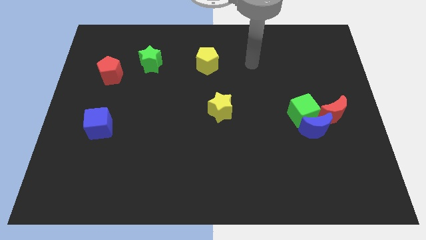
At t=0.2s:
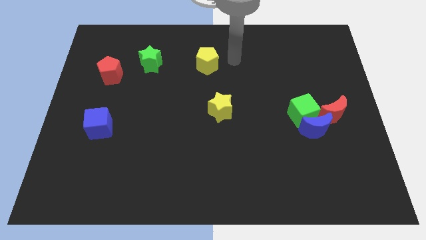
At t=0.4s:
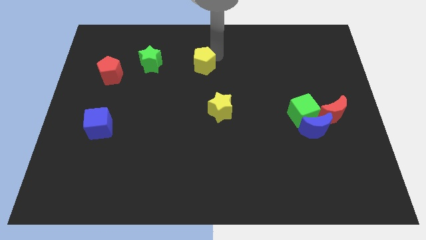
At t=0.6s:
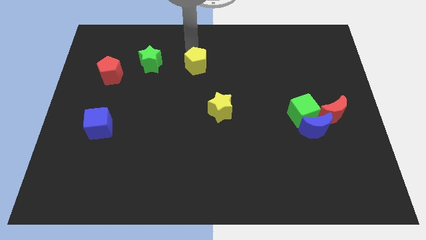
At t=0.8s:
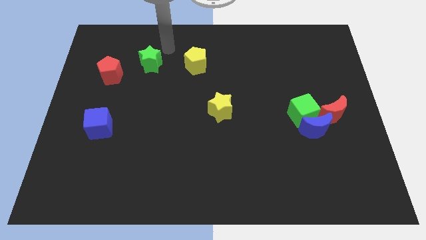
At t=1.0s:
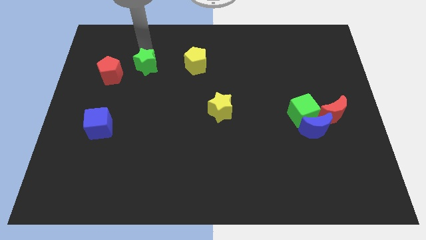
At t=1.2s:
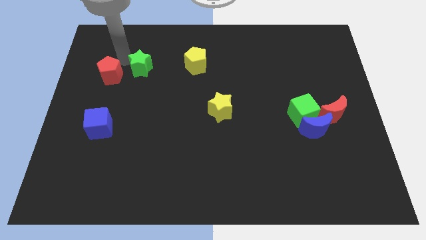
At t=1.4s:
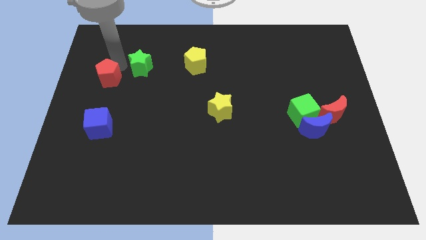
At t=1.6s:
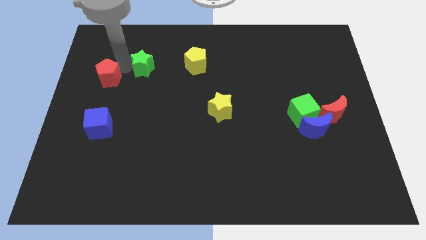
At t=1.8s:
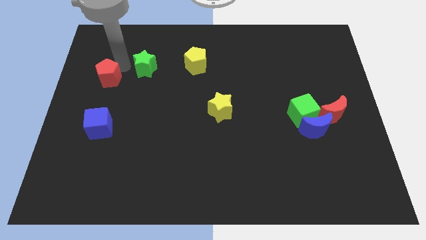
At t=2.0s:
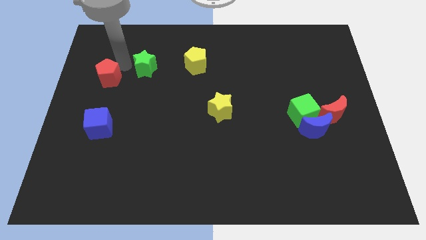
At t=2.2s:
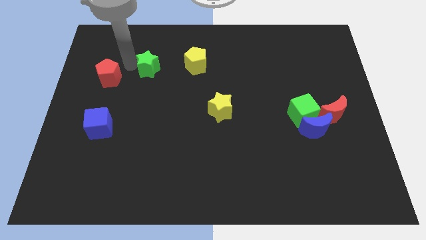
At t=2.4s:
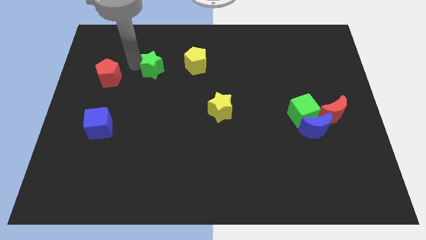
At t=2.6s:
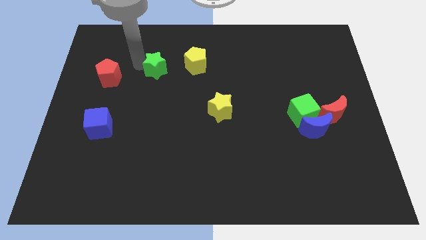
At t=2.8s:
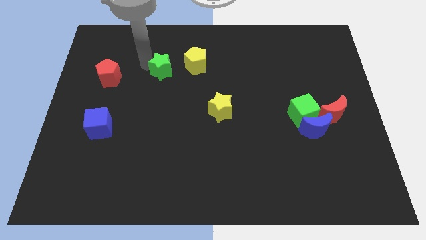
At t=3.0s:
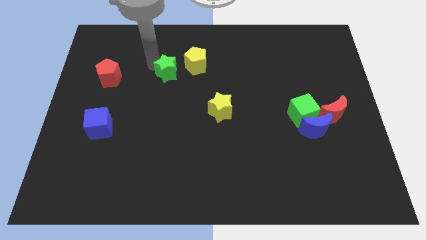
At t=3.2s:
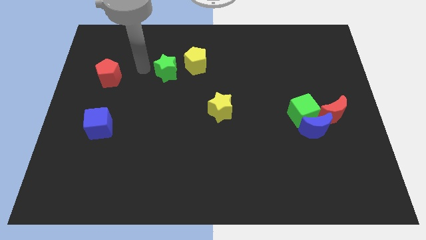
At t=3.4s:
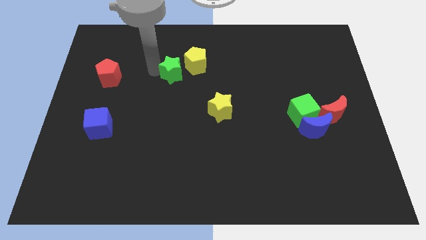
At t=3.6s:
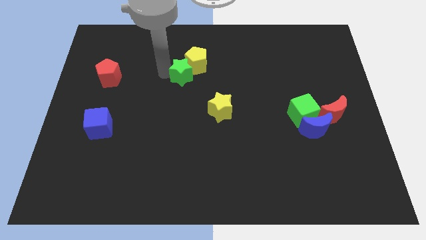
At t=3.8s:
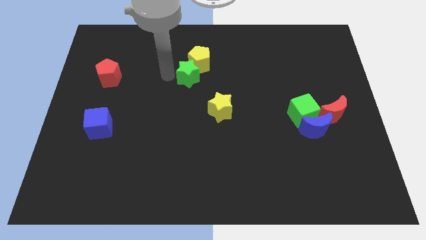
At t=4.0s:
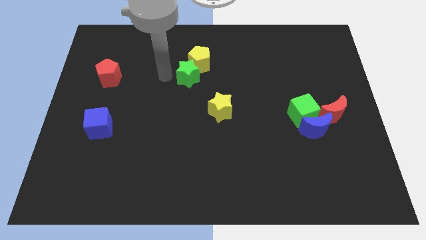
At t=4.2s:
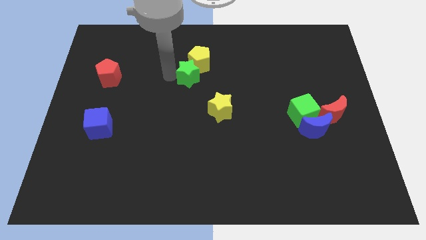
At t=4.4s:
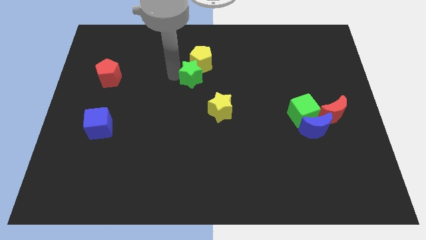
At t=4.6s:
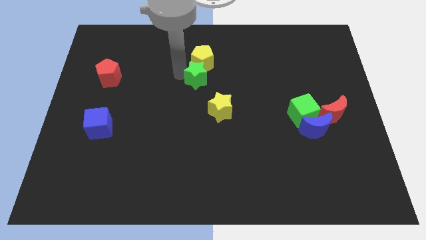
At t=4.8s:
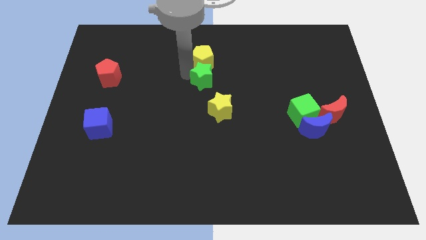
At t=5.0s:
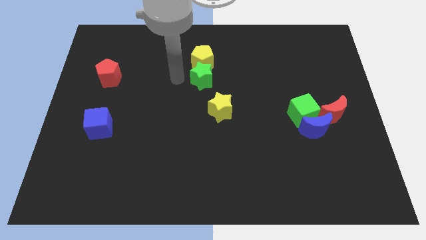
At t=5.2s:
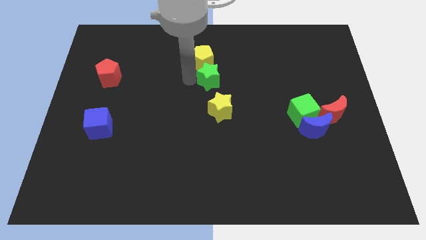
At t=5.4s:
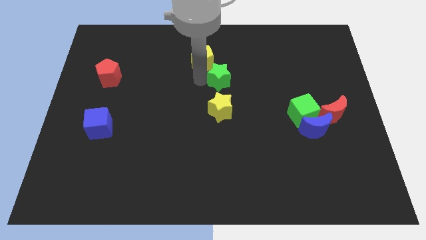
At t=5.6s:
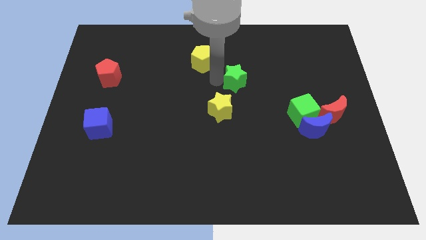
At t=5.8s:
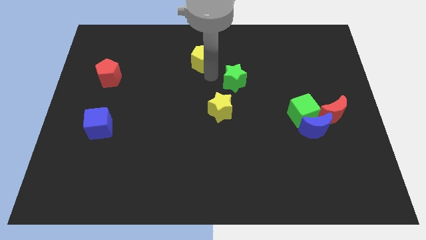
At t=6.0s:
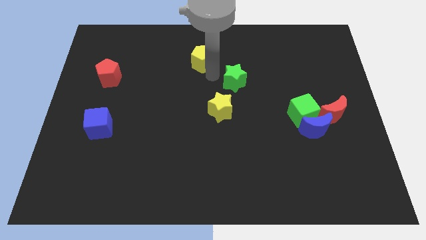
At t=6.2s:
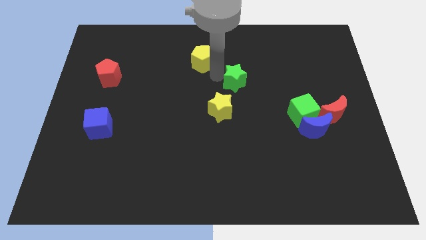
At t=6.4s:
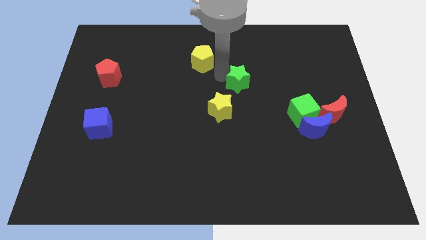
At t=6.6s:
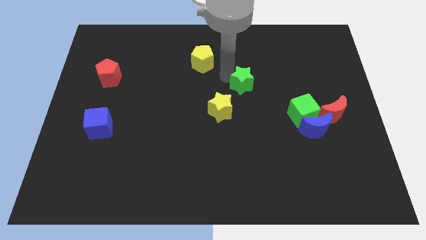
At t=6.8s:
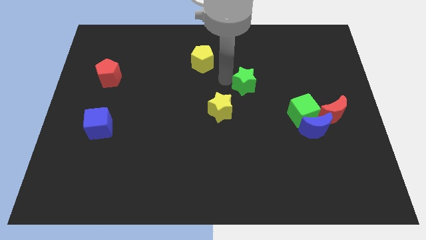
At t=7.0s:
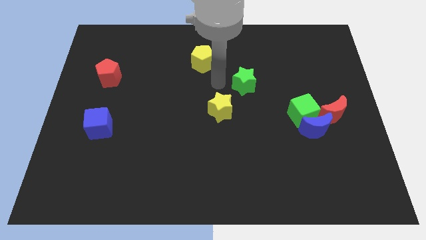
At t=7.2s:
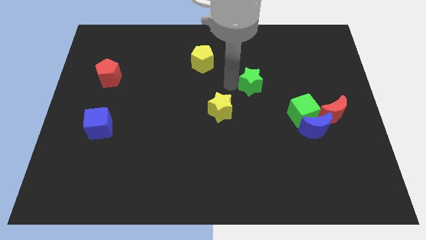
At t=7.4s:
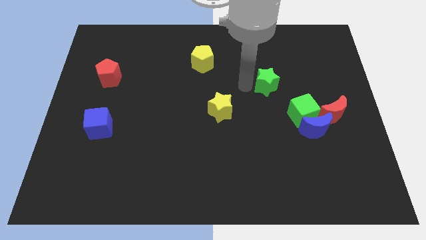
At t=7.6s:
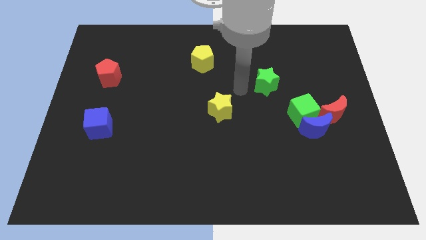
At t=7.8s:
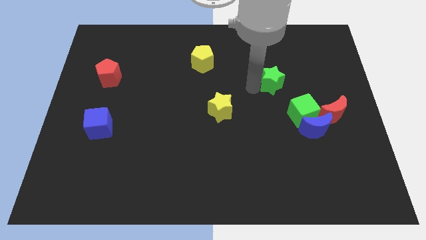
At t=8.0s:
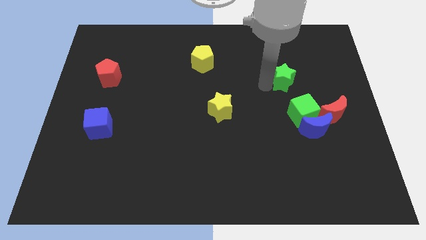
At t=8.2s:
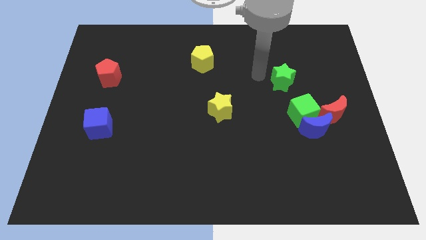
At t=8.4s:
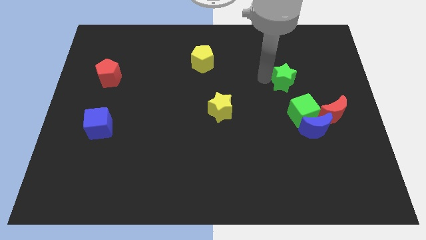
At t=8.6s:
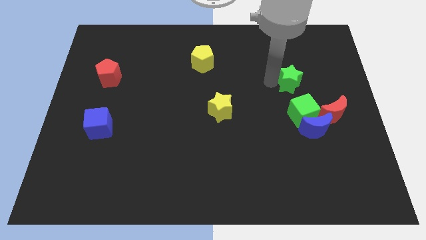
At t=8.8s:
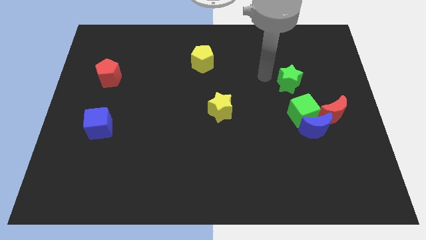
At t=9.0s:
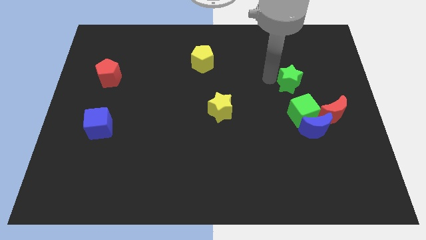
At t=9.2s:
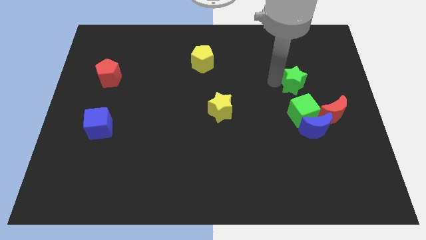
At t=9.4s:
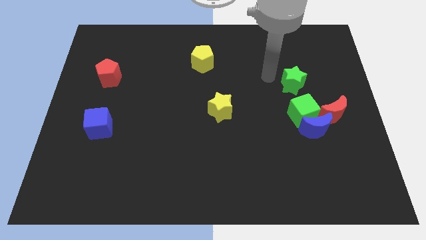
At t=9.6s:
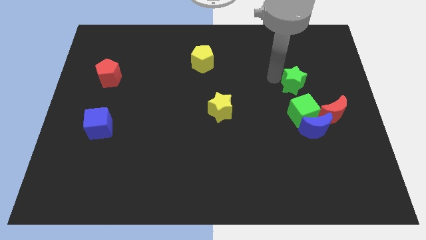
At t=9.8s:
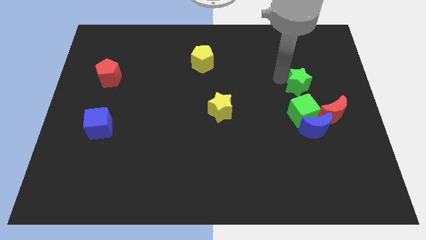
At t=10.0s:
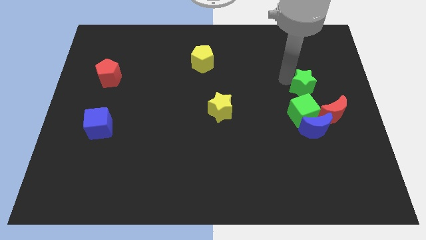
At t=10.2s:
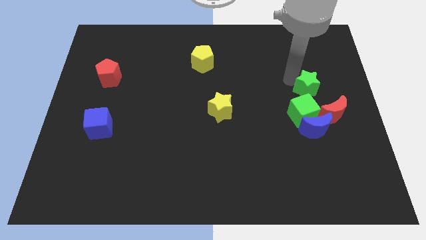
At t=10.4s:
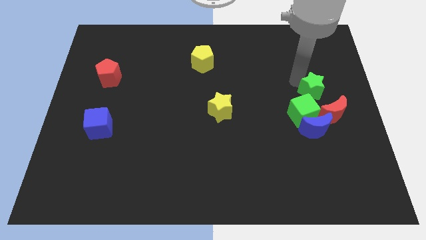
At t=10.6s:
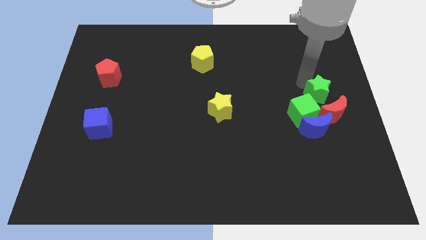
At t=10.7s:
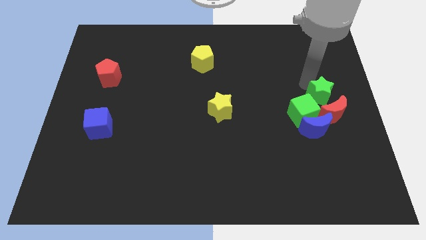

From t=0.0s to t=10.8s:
put the green star next to the red moon

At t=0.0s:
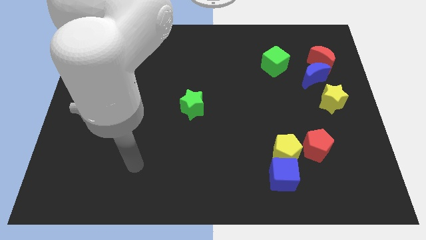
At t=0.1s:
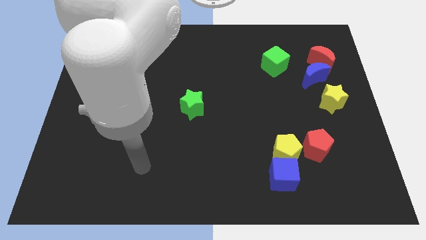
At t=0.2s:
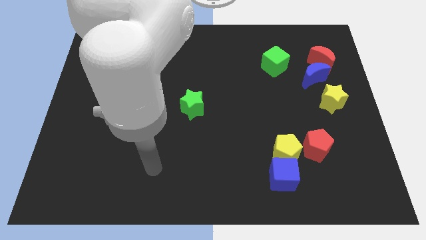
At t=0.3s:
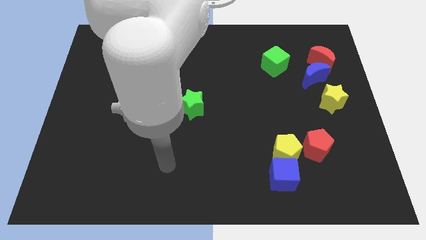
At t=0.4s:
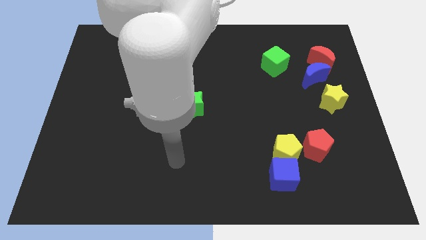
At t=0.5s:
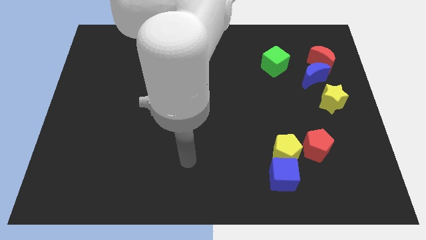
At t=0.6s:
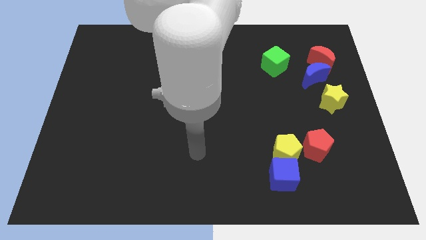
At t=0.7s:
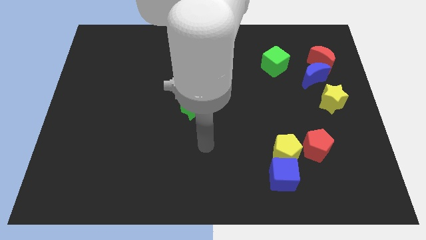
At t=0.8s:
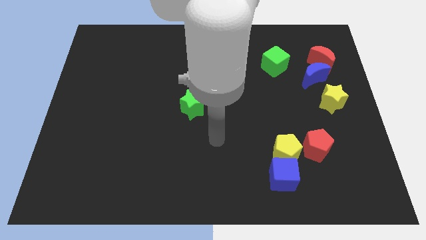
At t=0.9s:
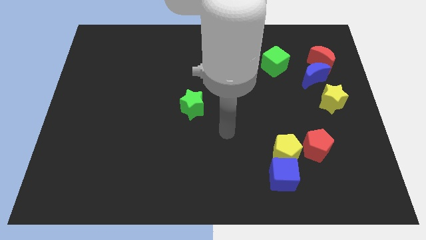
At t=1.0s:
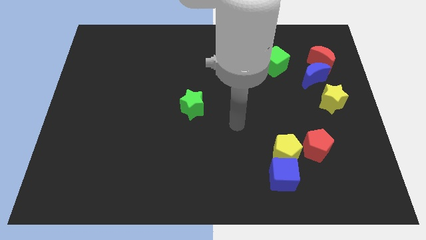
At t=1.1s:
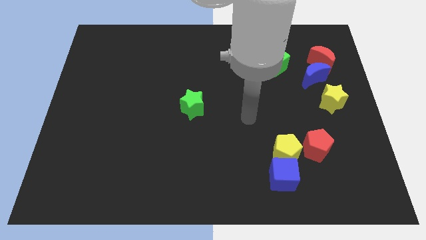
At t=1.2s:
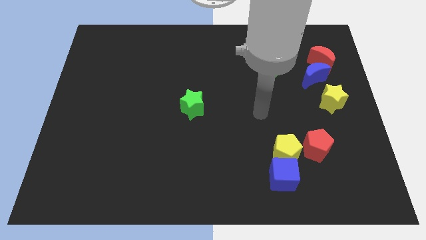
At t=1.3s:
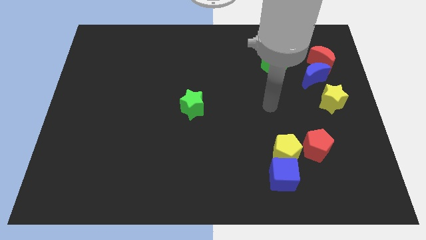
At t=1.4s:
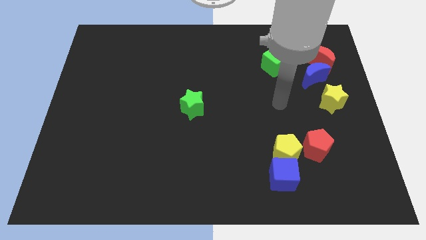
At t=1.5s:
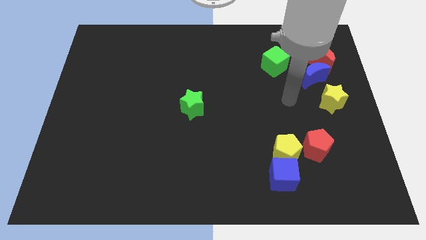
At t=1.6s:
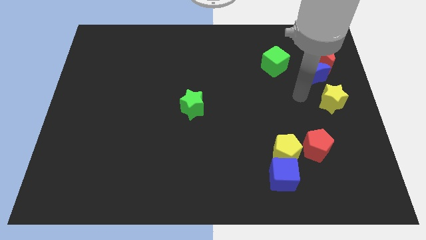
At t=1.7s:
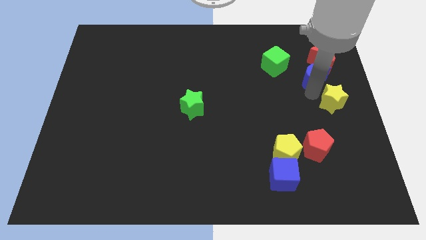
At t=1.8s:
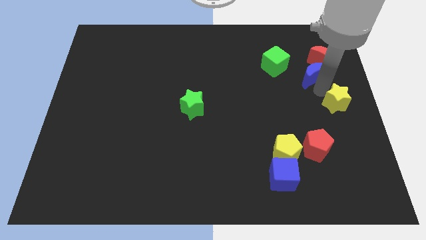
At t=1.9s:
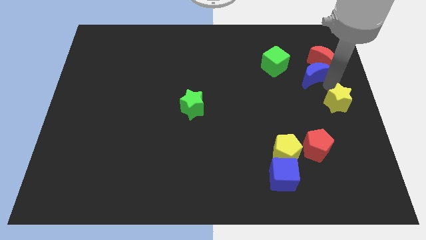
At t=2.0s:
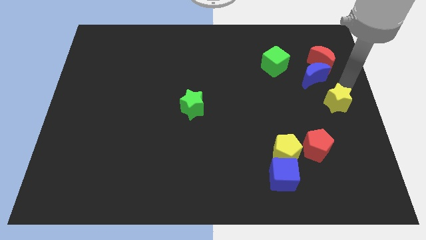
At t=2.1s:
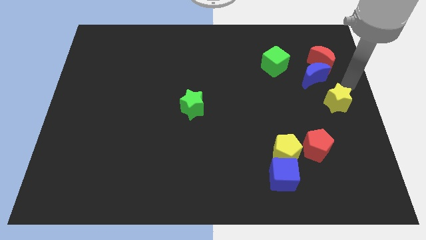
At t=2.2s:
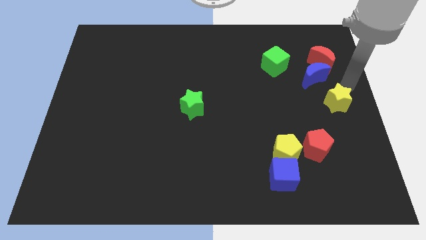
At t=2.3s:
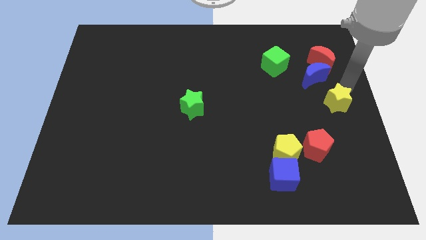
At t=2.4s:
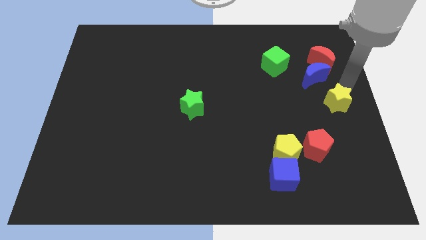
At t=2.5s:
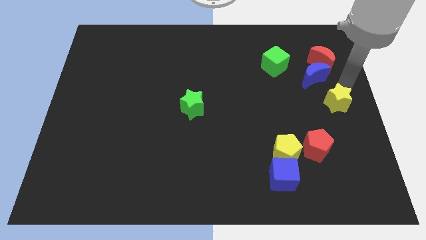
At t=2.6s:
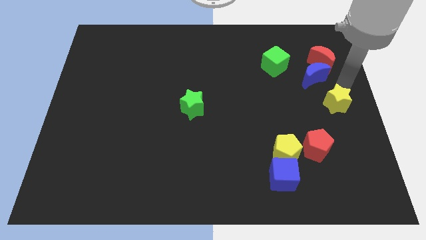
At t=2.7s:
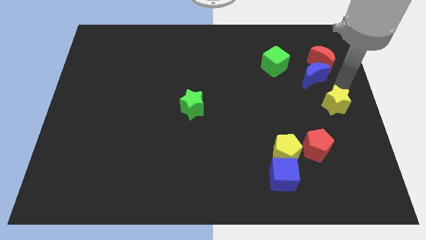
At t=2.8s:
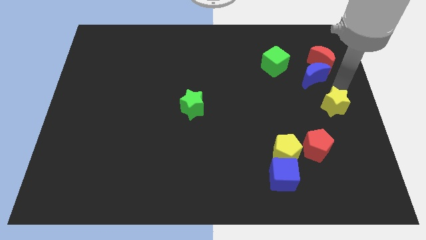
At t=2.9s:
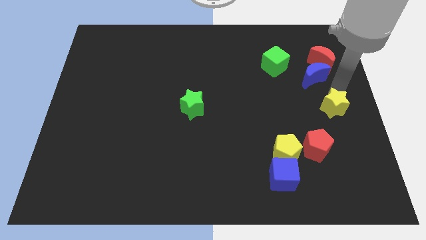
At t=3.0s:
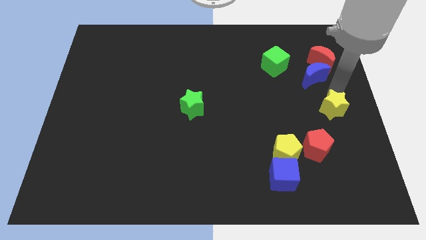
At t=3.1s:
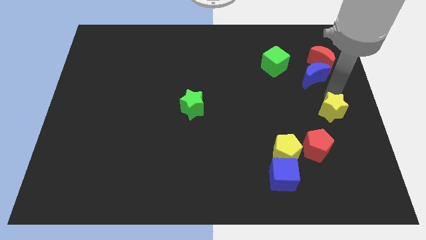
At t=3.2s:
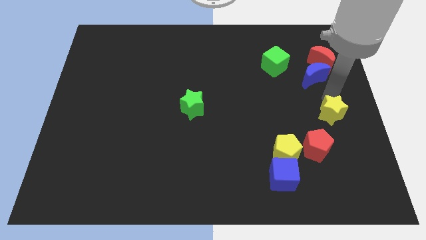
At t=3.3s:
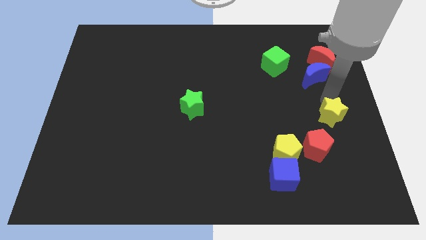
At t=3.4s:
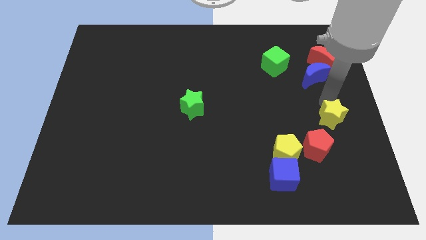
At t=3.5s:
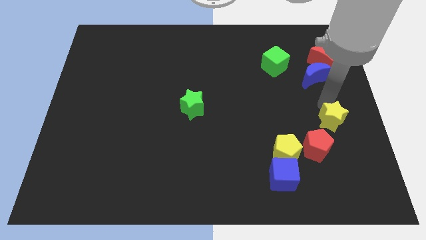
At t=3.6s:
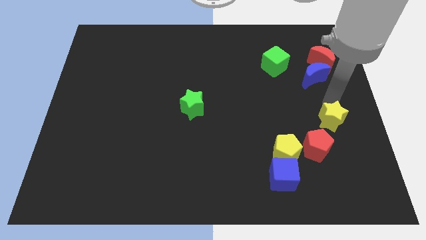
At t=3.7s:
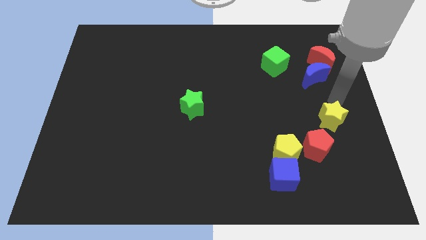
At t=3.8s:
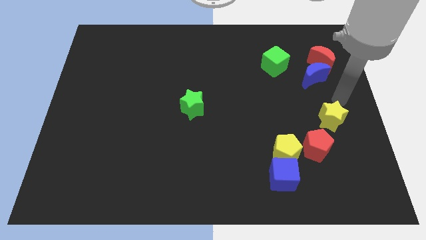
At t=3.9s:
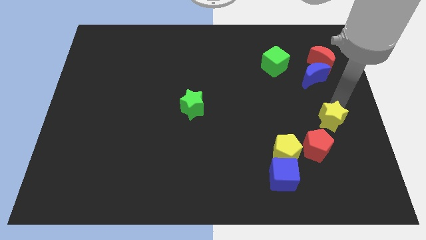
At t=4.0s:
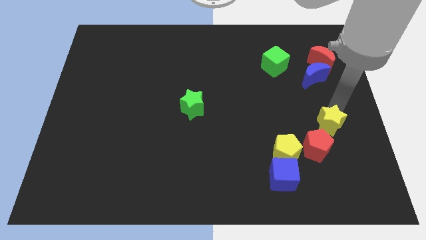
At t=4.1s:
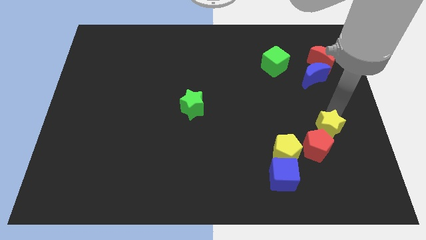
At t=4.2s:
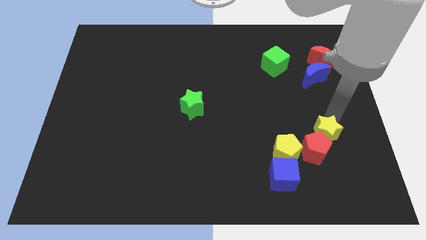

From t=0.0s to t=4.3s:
push the yellow star to the red pentagon
